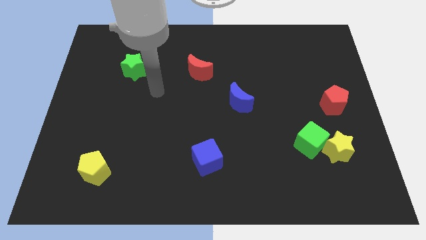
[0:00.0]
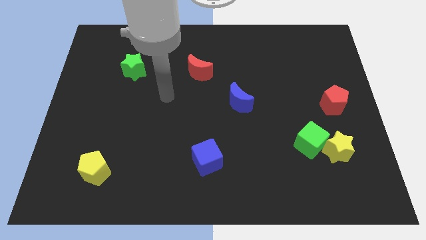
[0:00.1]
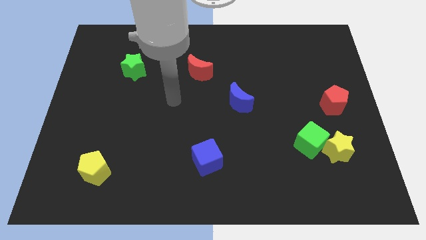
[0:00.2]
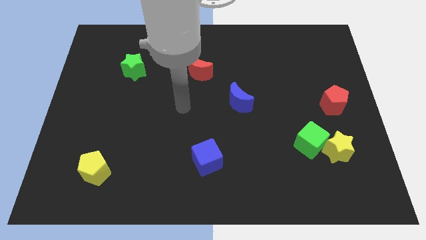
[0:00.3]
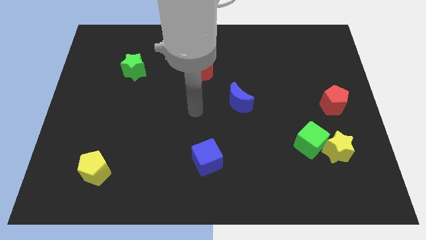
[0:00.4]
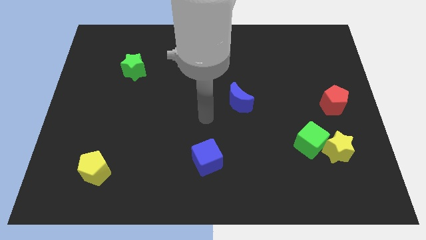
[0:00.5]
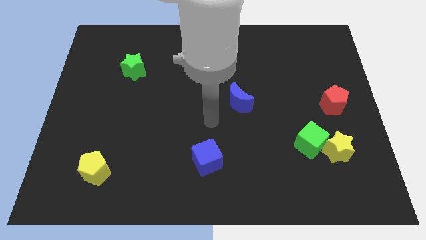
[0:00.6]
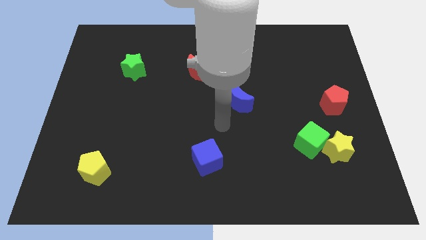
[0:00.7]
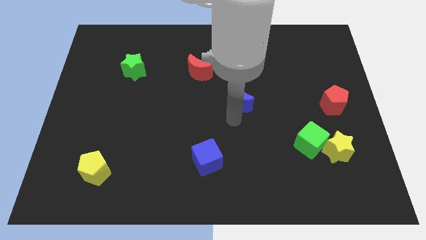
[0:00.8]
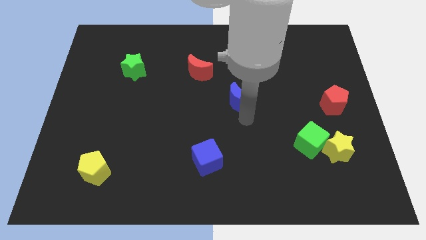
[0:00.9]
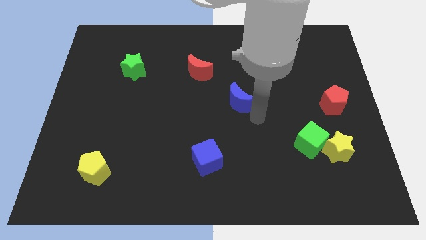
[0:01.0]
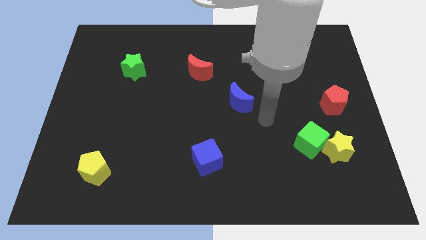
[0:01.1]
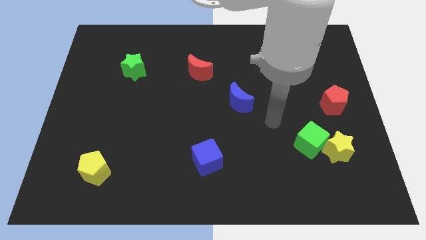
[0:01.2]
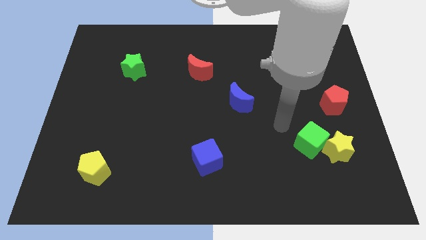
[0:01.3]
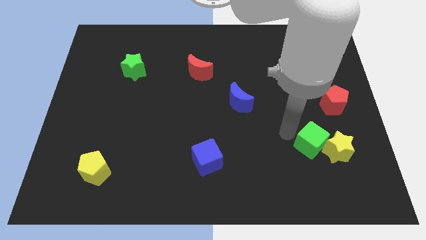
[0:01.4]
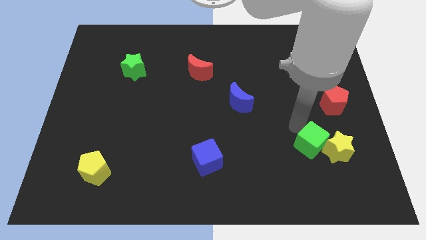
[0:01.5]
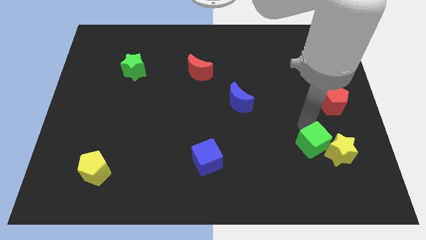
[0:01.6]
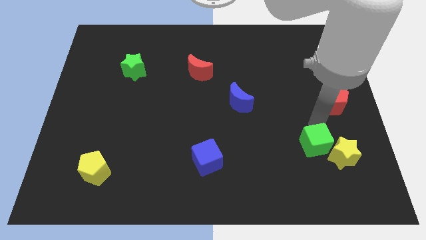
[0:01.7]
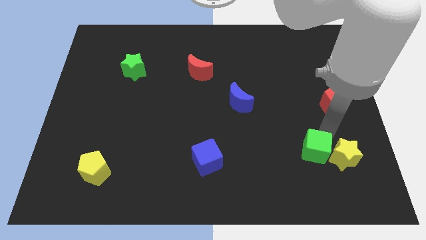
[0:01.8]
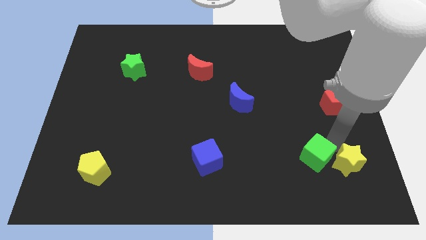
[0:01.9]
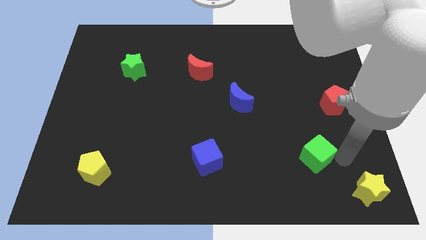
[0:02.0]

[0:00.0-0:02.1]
separate the green cube from the yellow star

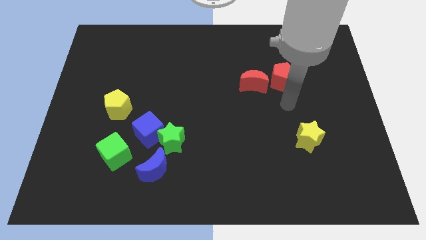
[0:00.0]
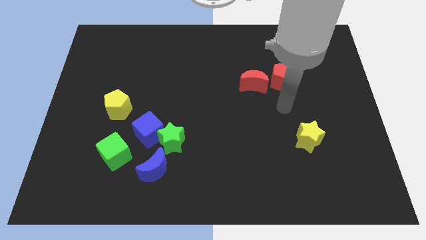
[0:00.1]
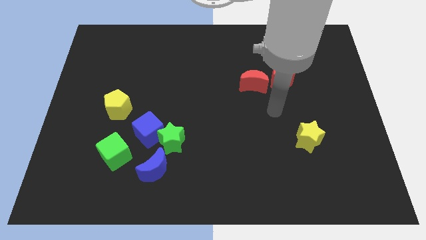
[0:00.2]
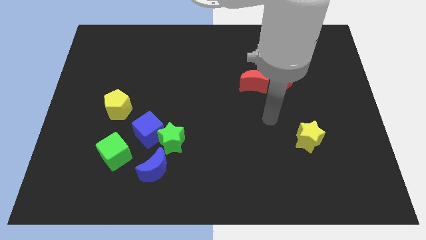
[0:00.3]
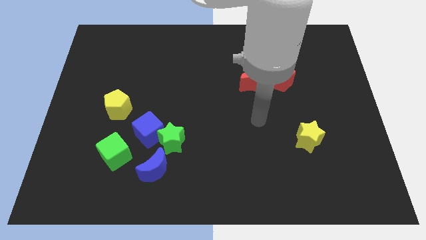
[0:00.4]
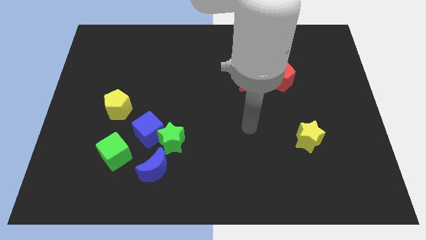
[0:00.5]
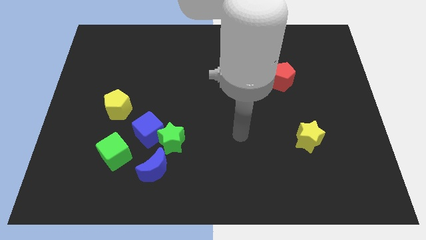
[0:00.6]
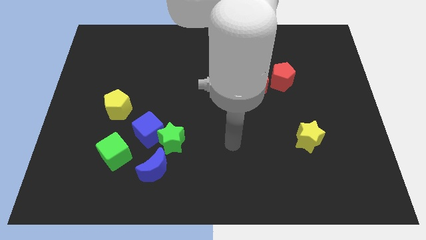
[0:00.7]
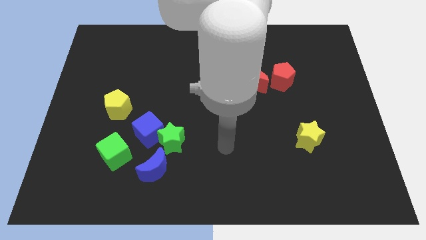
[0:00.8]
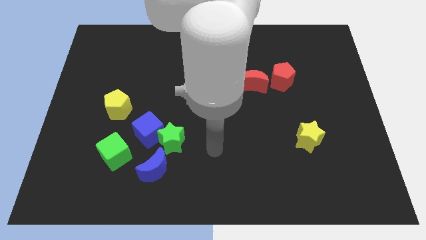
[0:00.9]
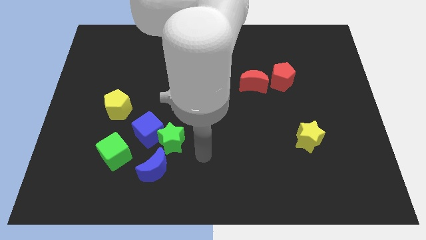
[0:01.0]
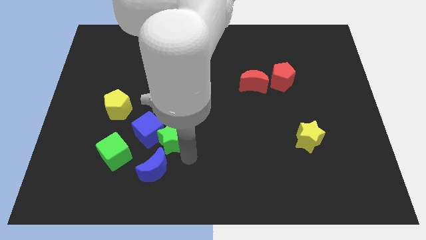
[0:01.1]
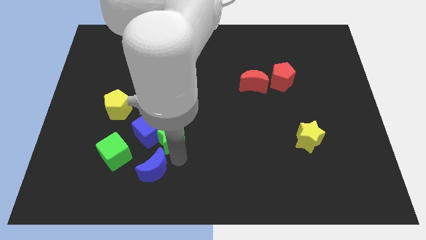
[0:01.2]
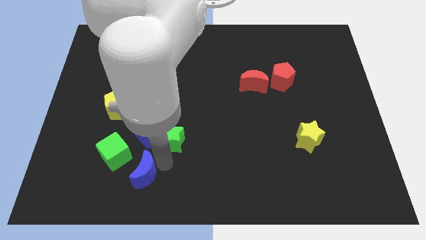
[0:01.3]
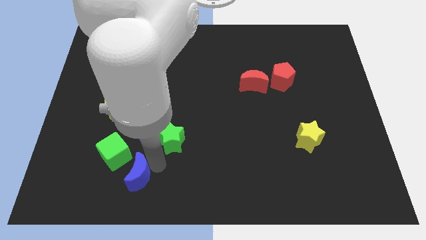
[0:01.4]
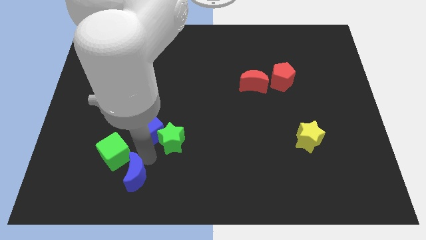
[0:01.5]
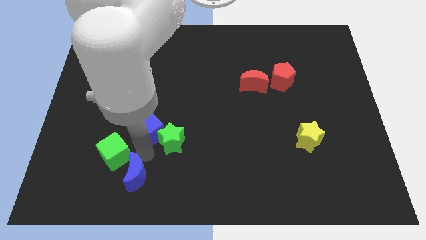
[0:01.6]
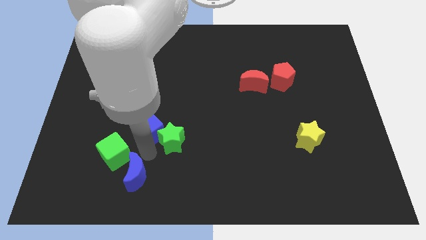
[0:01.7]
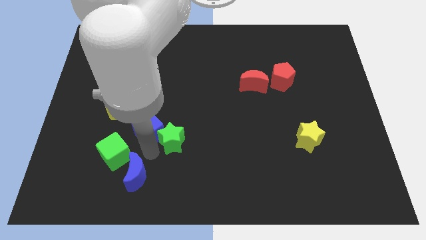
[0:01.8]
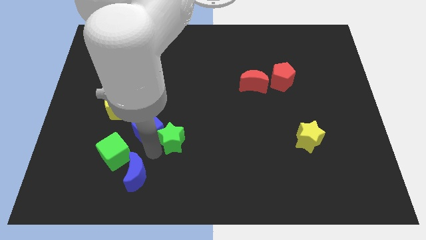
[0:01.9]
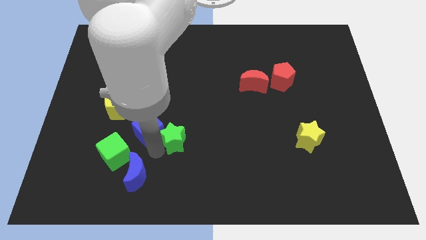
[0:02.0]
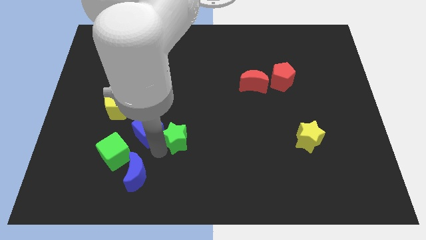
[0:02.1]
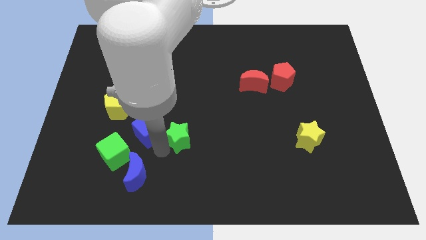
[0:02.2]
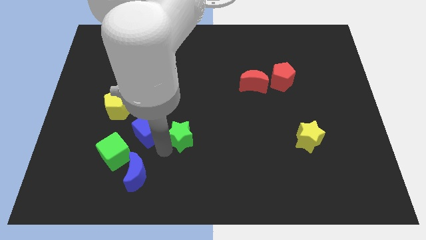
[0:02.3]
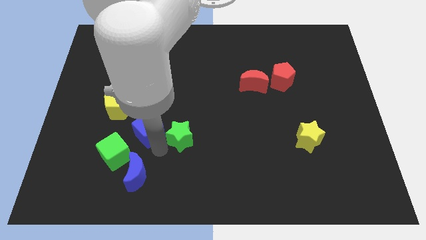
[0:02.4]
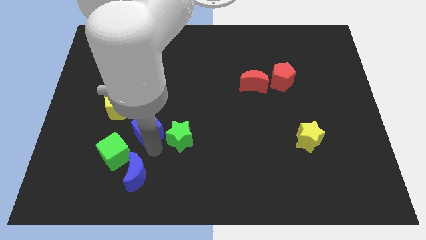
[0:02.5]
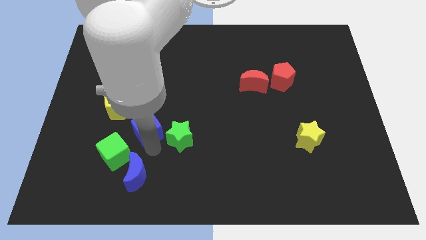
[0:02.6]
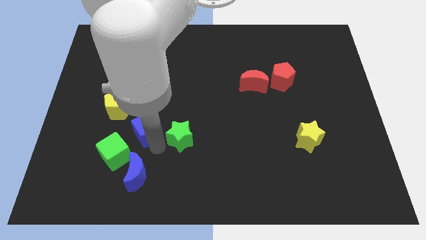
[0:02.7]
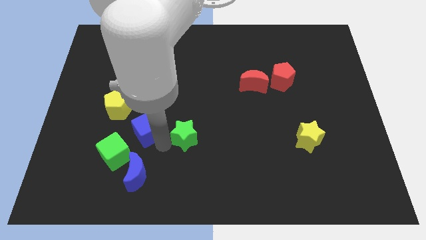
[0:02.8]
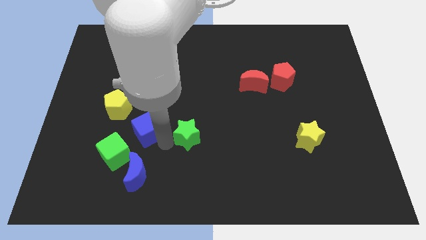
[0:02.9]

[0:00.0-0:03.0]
pull the green star apart from the blue cube and blue moon

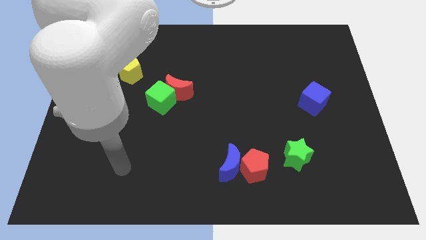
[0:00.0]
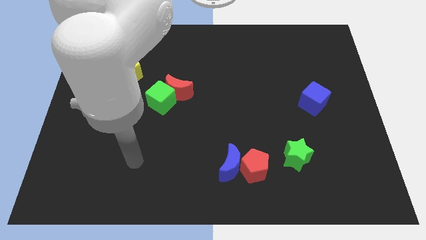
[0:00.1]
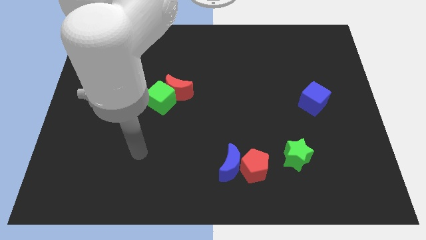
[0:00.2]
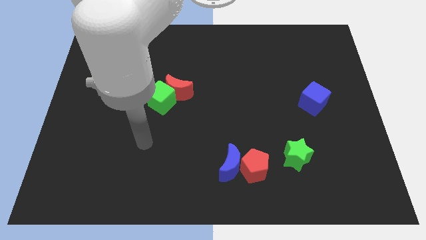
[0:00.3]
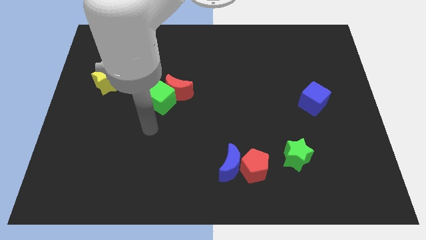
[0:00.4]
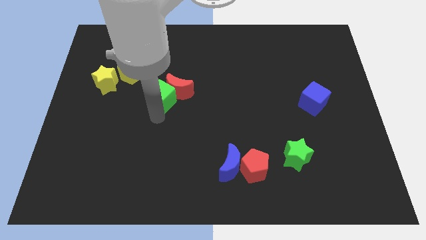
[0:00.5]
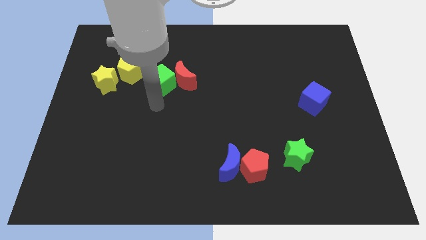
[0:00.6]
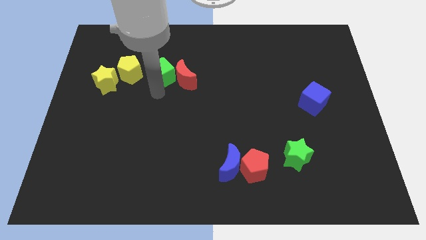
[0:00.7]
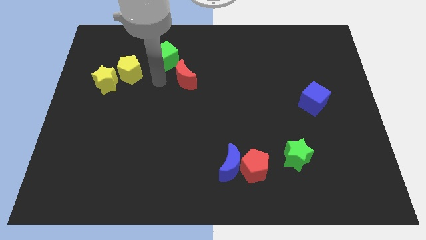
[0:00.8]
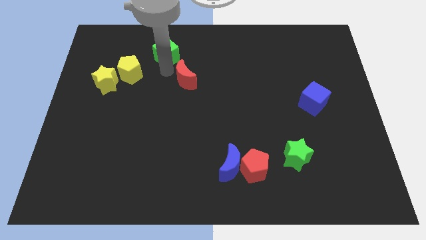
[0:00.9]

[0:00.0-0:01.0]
separate the red moon from the green cube

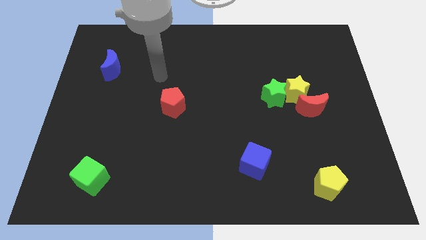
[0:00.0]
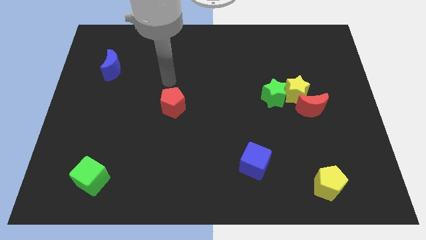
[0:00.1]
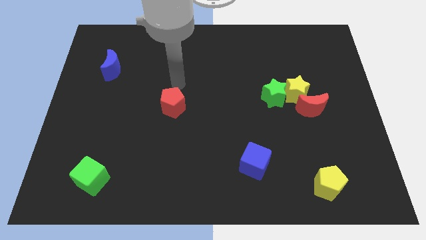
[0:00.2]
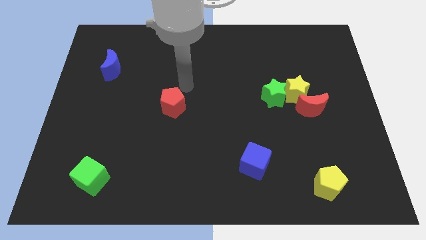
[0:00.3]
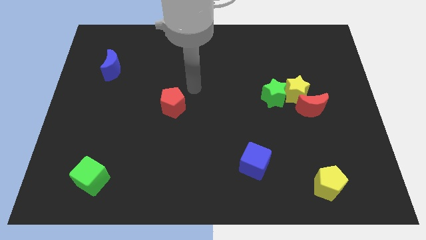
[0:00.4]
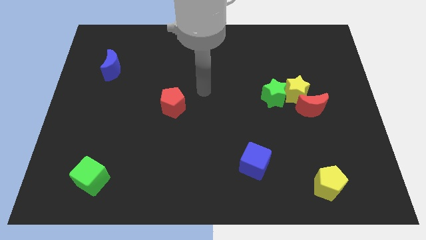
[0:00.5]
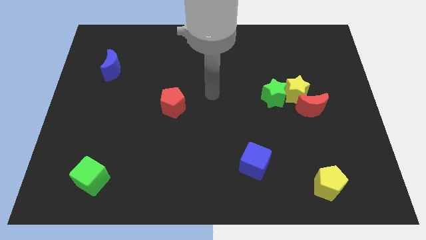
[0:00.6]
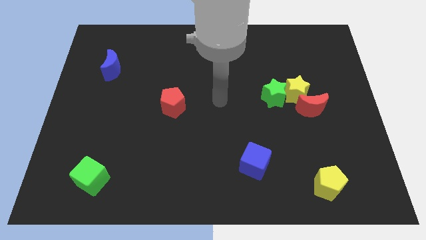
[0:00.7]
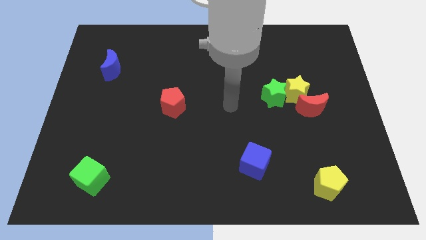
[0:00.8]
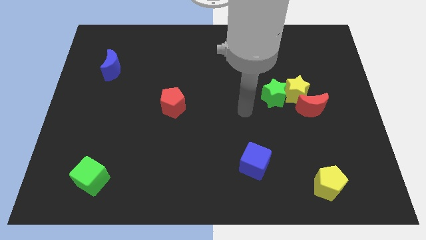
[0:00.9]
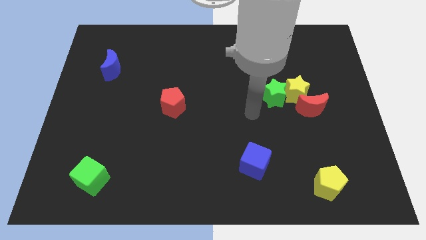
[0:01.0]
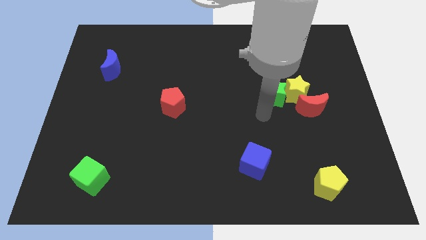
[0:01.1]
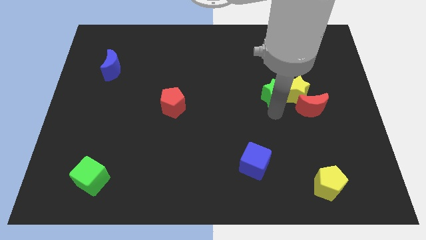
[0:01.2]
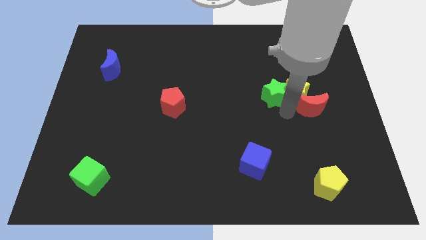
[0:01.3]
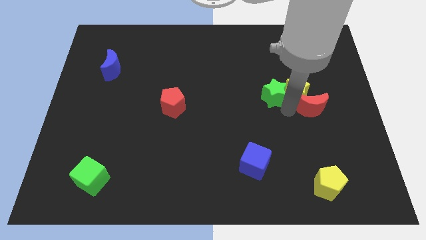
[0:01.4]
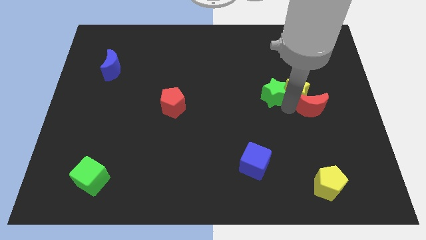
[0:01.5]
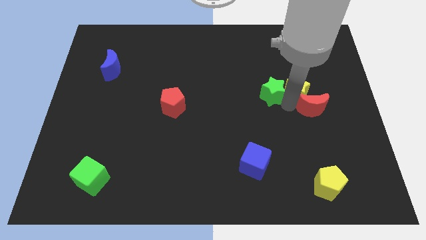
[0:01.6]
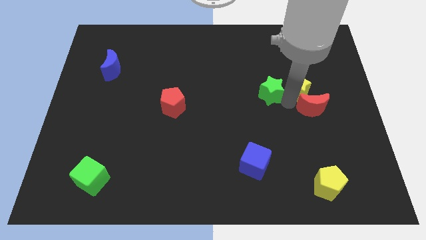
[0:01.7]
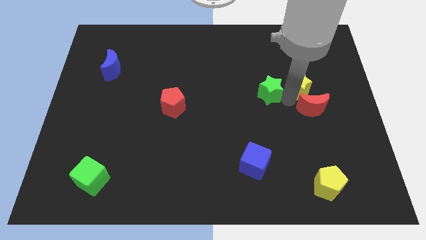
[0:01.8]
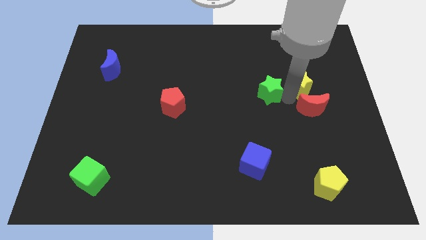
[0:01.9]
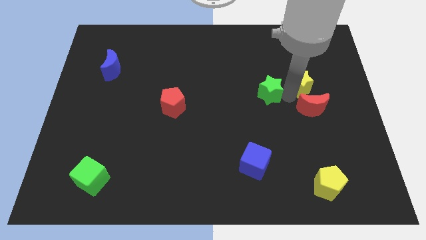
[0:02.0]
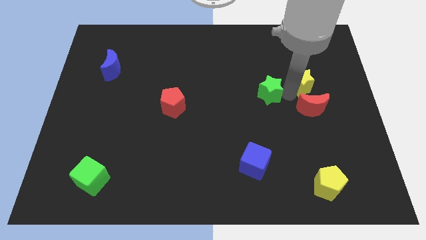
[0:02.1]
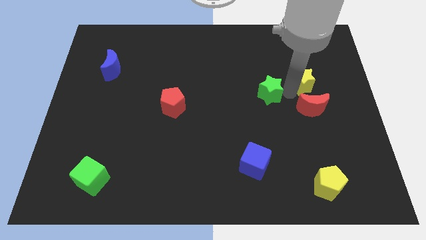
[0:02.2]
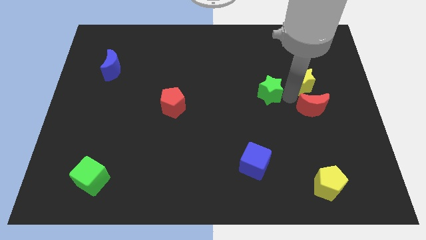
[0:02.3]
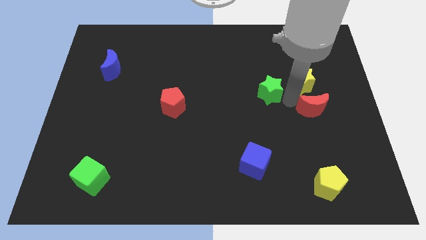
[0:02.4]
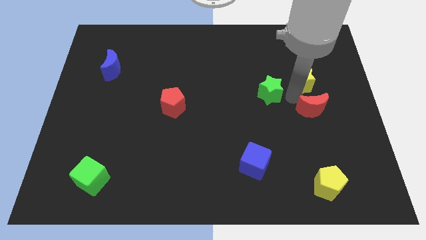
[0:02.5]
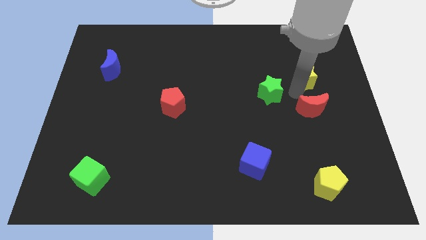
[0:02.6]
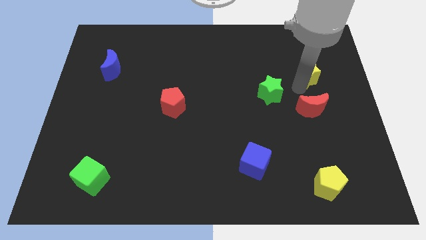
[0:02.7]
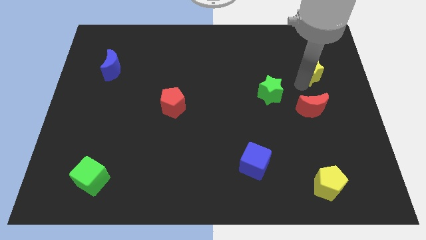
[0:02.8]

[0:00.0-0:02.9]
move the yellow star away from the red moon and green star
